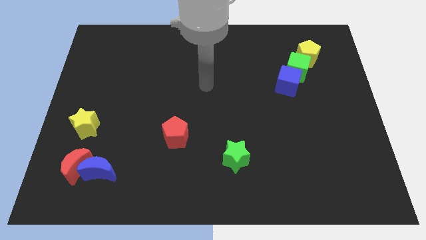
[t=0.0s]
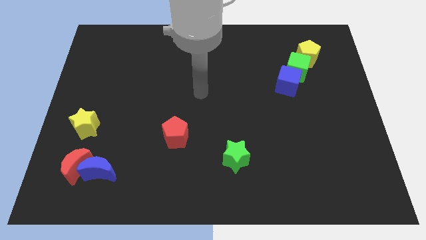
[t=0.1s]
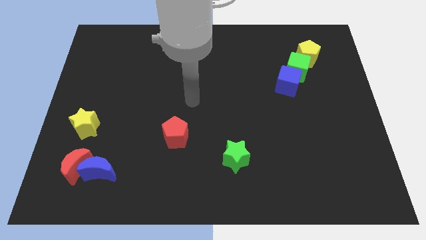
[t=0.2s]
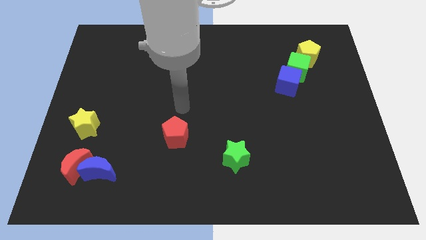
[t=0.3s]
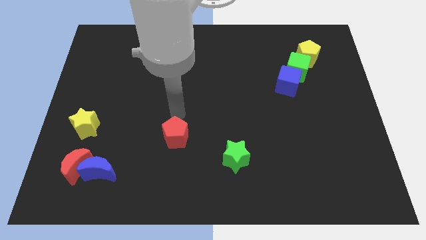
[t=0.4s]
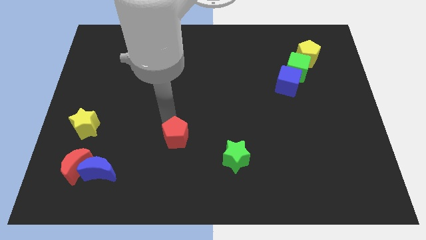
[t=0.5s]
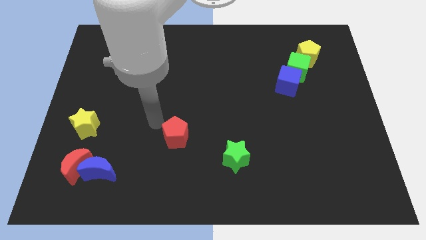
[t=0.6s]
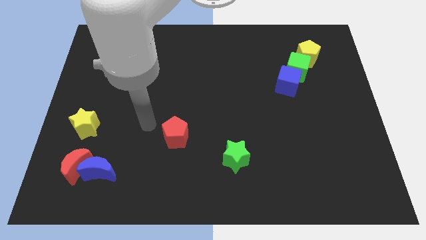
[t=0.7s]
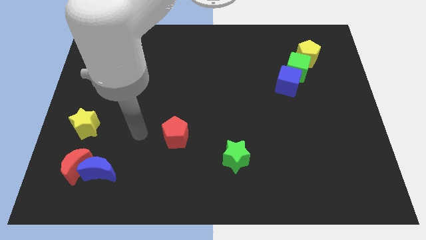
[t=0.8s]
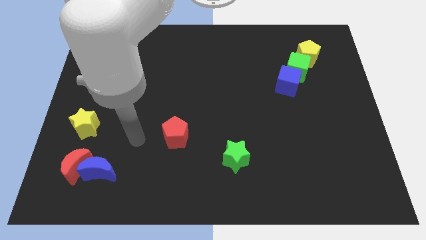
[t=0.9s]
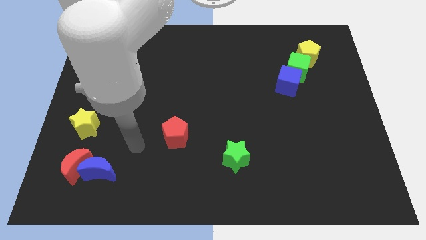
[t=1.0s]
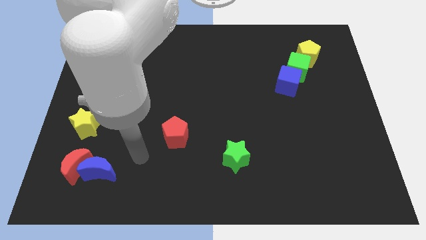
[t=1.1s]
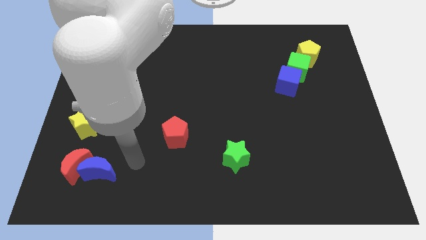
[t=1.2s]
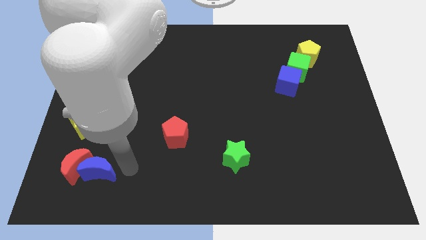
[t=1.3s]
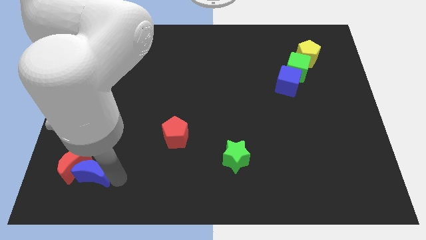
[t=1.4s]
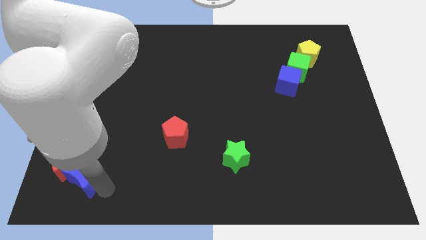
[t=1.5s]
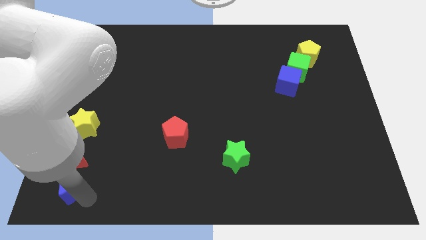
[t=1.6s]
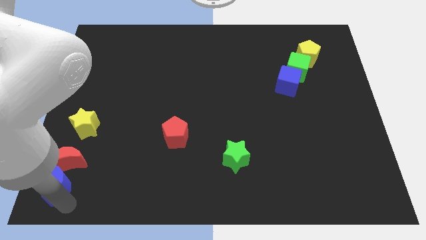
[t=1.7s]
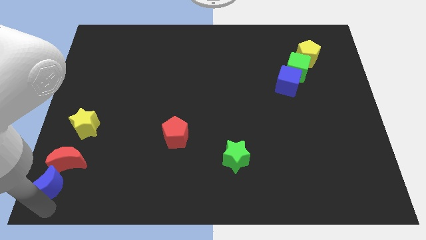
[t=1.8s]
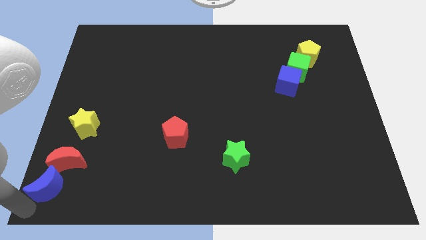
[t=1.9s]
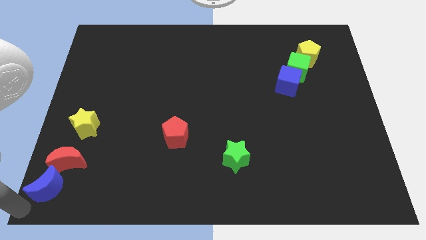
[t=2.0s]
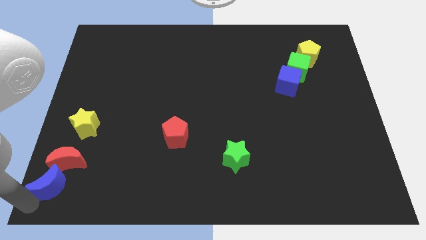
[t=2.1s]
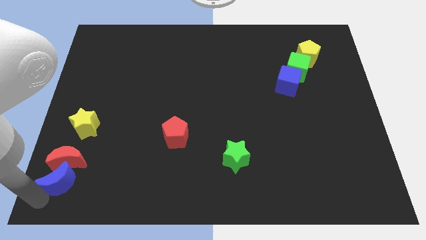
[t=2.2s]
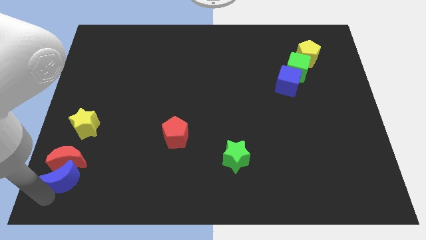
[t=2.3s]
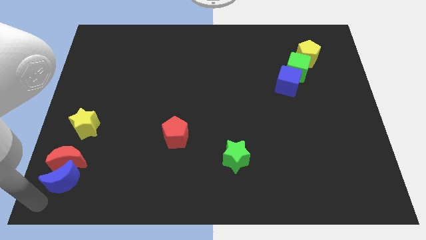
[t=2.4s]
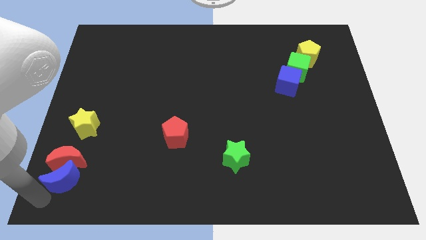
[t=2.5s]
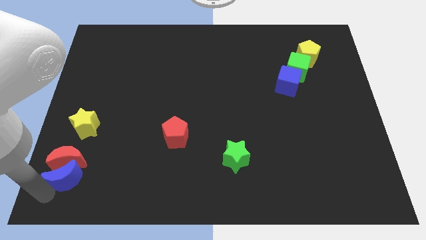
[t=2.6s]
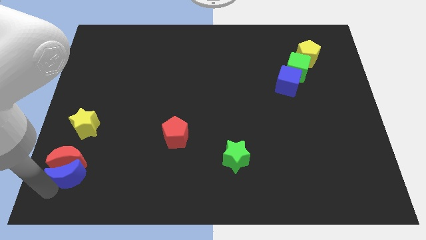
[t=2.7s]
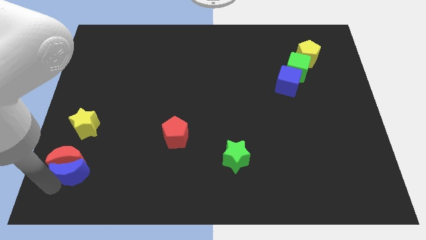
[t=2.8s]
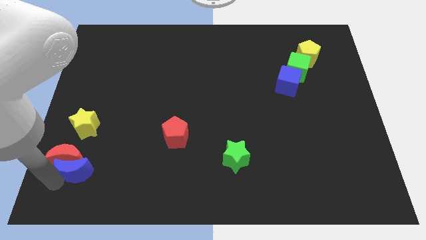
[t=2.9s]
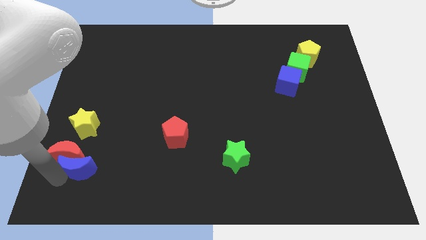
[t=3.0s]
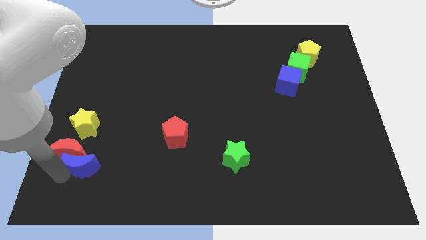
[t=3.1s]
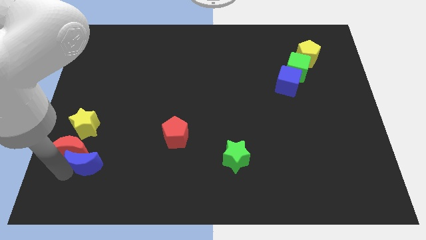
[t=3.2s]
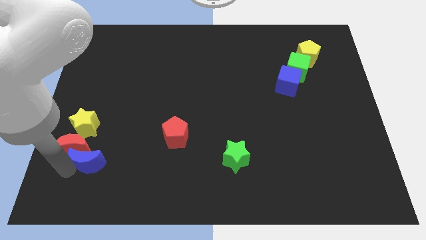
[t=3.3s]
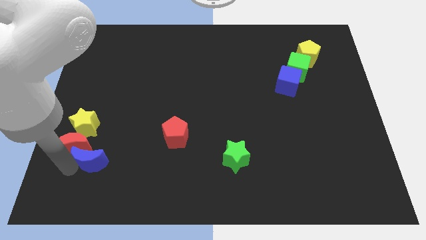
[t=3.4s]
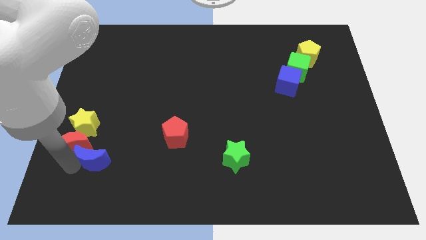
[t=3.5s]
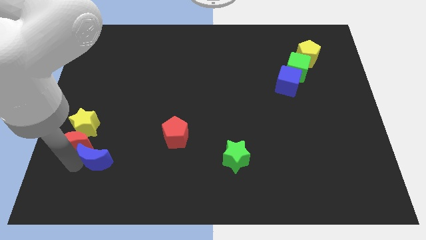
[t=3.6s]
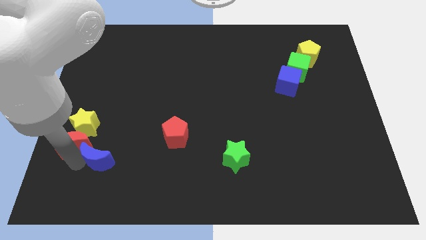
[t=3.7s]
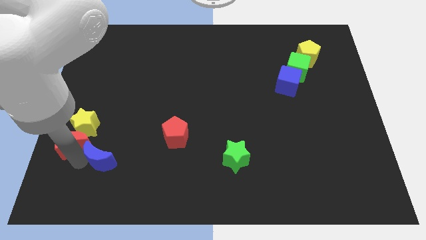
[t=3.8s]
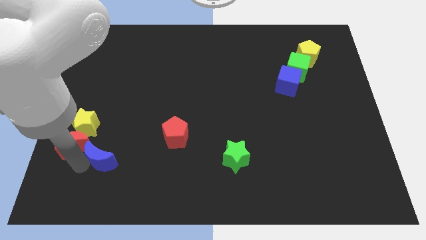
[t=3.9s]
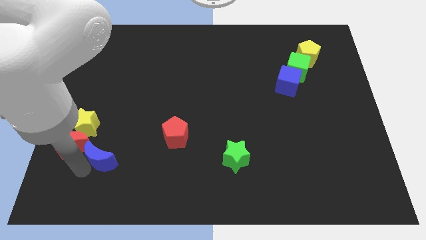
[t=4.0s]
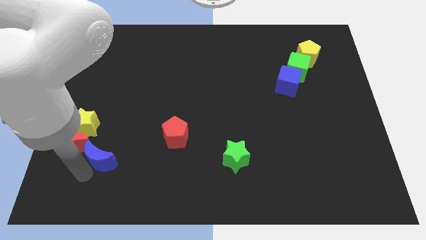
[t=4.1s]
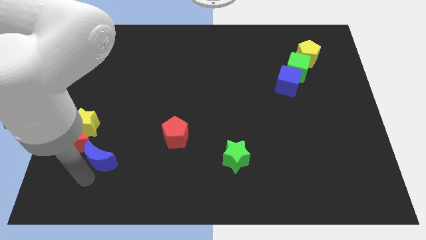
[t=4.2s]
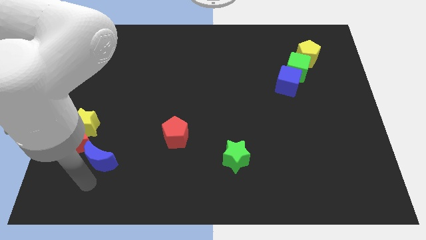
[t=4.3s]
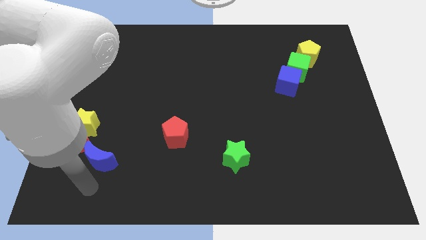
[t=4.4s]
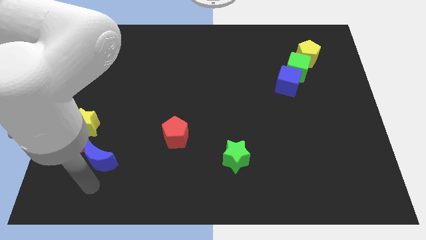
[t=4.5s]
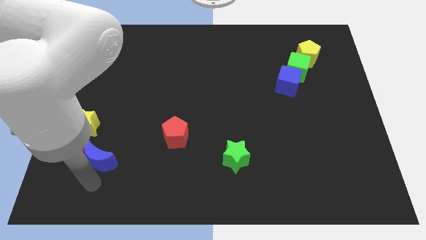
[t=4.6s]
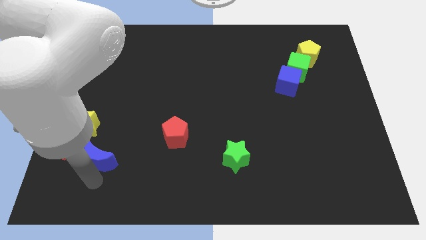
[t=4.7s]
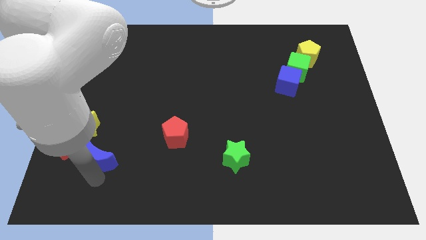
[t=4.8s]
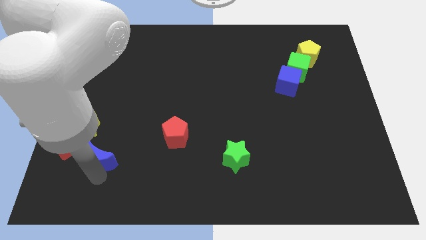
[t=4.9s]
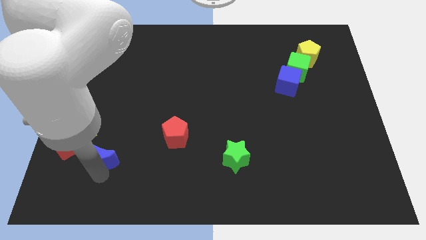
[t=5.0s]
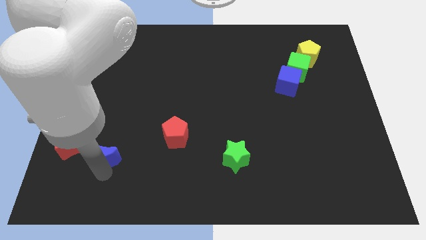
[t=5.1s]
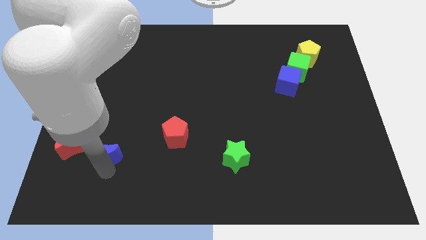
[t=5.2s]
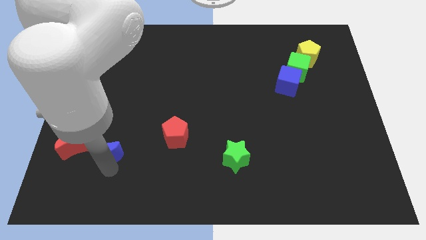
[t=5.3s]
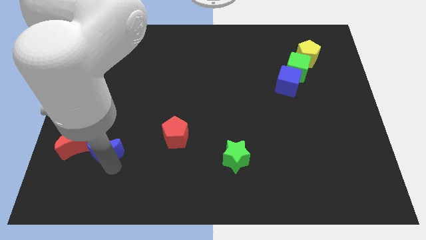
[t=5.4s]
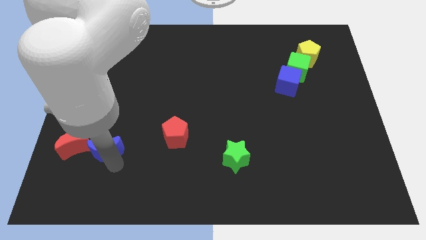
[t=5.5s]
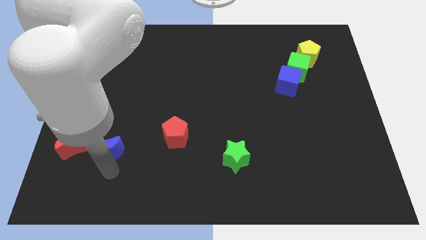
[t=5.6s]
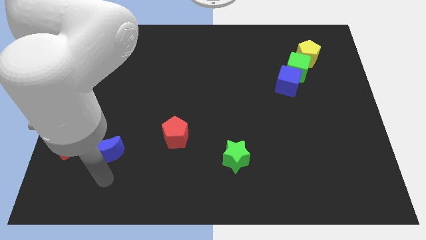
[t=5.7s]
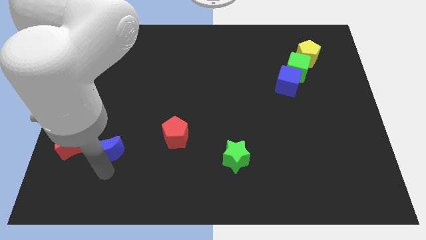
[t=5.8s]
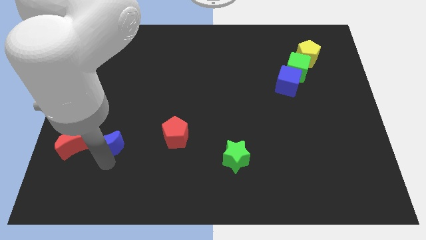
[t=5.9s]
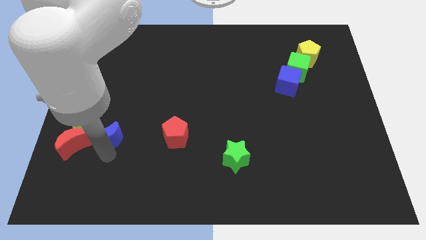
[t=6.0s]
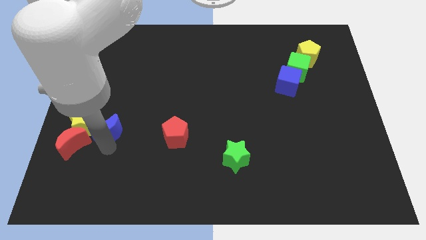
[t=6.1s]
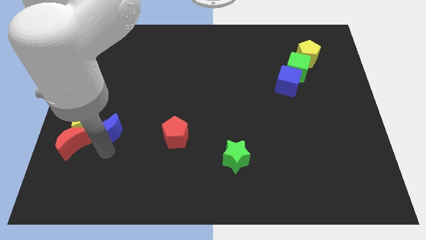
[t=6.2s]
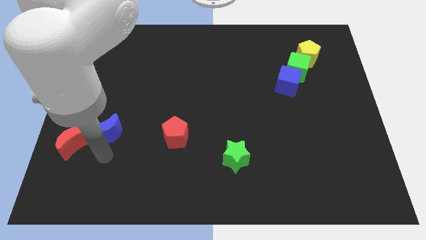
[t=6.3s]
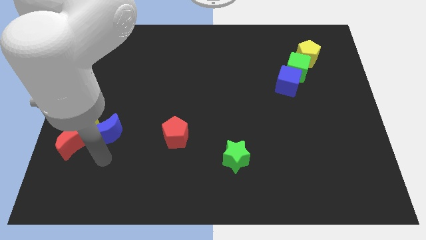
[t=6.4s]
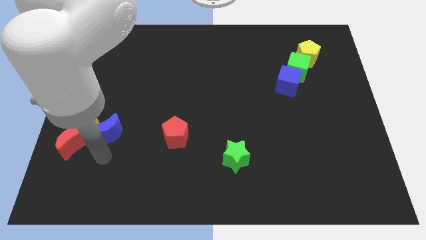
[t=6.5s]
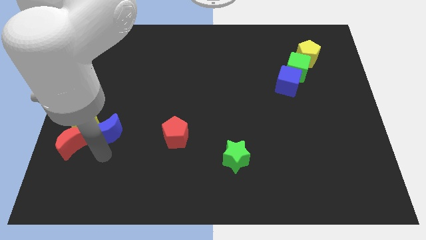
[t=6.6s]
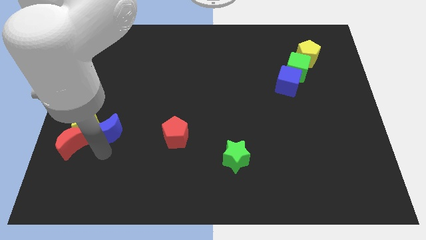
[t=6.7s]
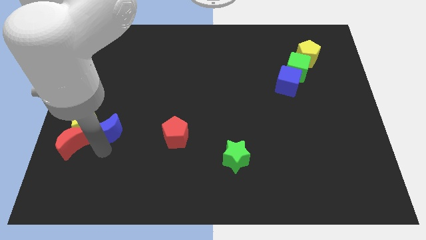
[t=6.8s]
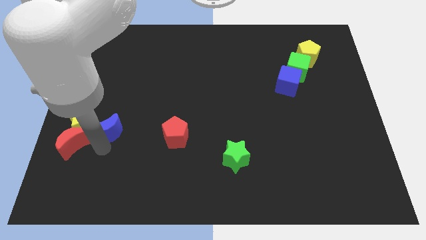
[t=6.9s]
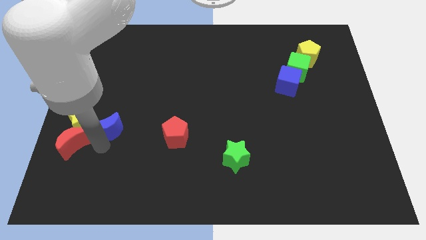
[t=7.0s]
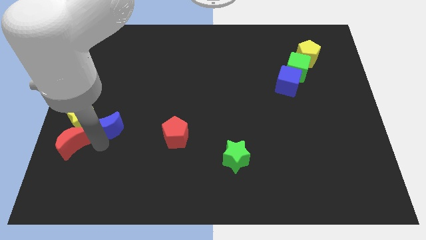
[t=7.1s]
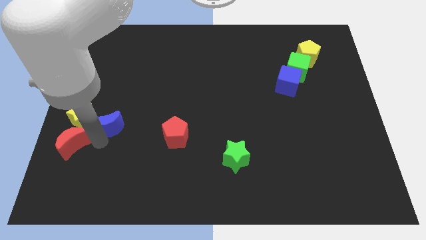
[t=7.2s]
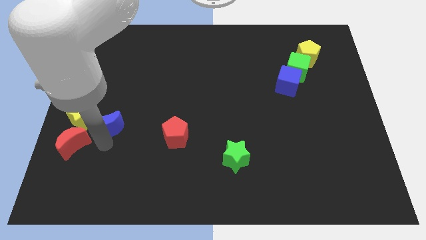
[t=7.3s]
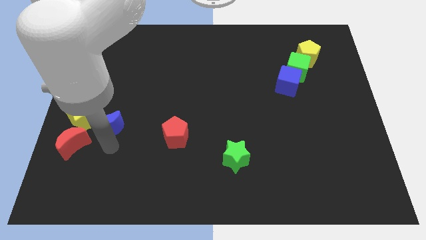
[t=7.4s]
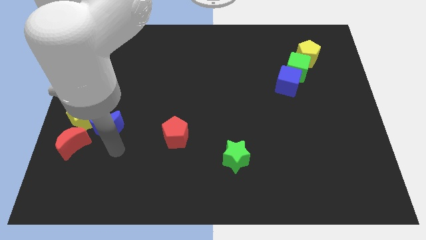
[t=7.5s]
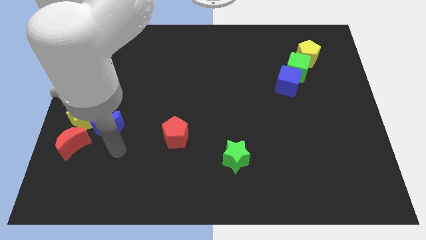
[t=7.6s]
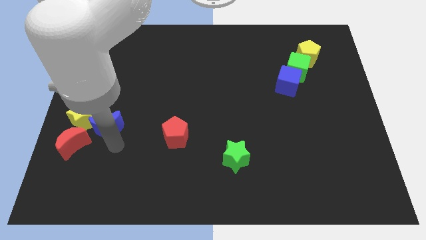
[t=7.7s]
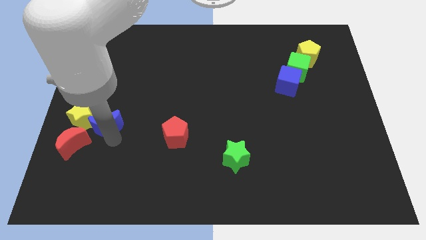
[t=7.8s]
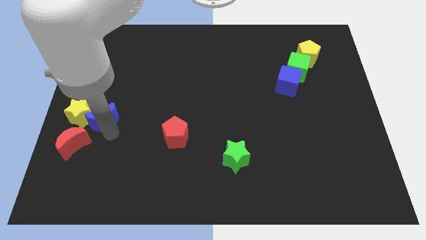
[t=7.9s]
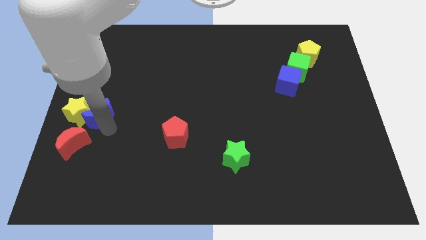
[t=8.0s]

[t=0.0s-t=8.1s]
move the blue moon to the top of the red moon
